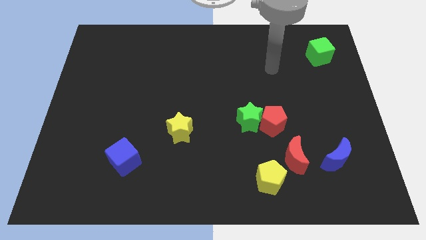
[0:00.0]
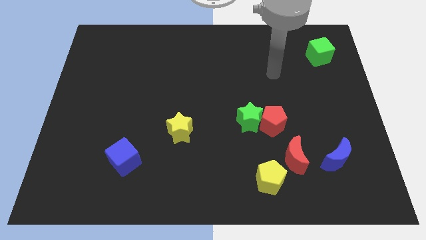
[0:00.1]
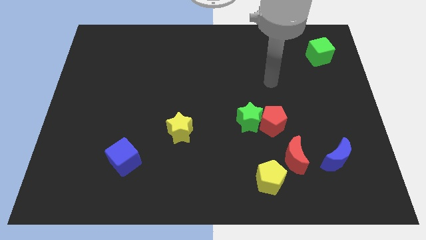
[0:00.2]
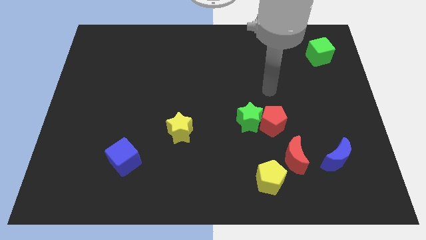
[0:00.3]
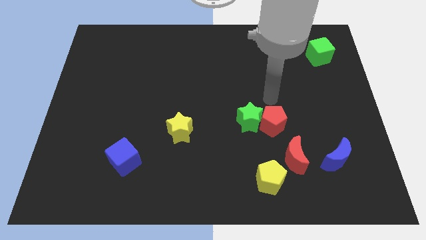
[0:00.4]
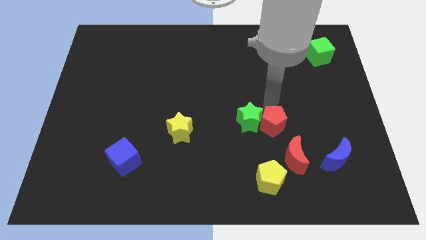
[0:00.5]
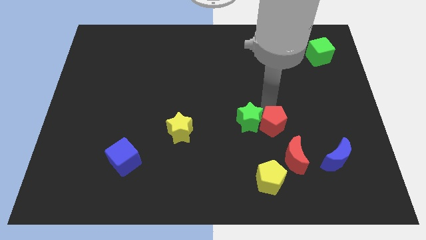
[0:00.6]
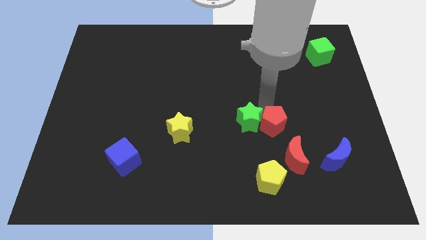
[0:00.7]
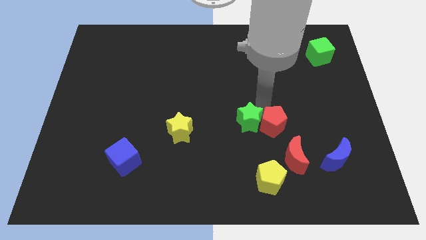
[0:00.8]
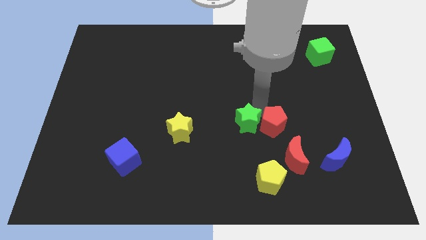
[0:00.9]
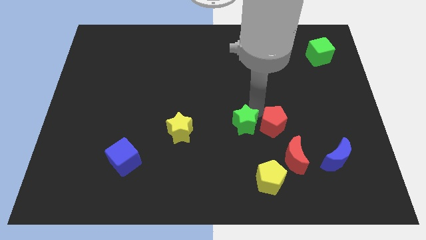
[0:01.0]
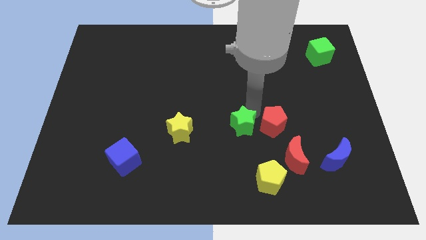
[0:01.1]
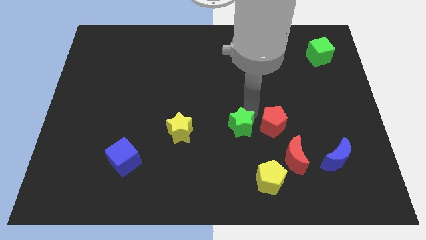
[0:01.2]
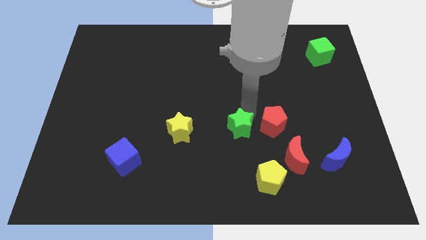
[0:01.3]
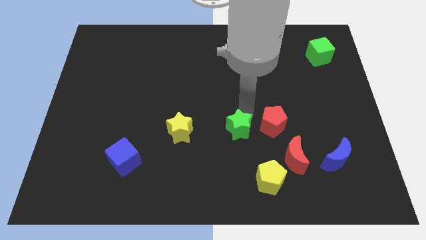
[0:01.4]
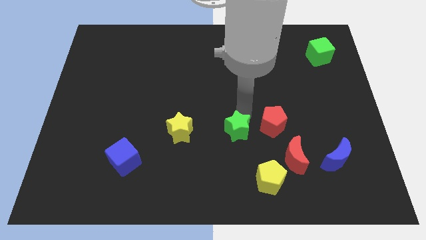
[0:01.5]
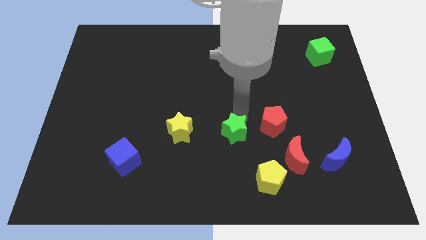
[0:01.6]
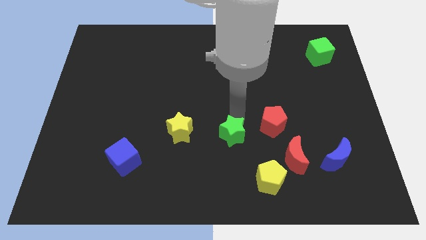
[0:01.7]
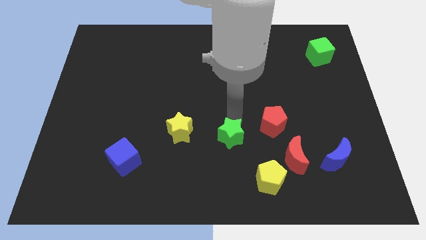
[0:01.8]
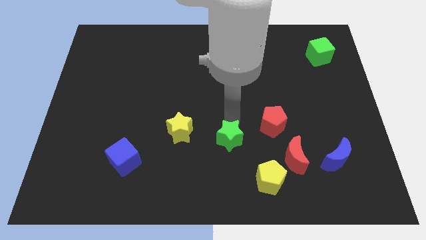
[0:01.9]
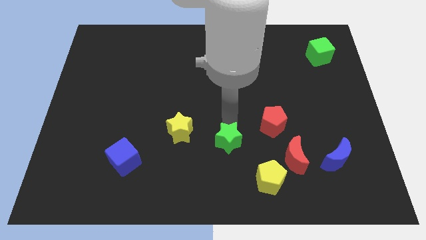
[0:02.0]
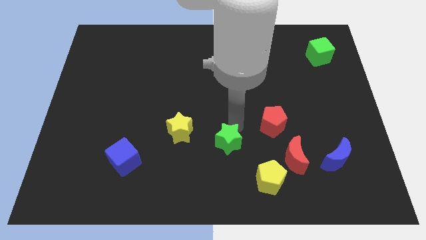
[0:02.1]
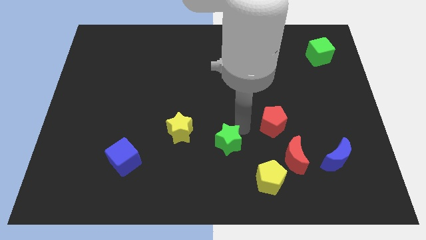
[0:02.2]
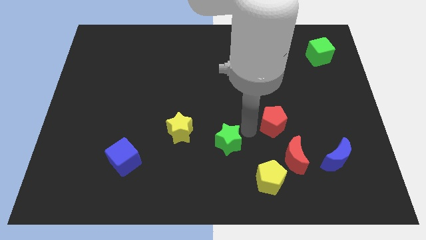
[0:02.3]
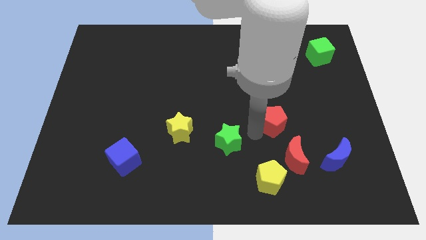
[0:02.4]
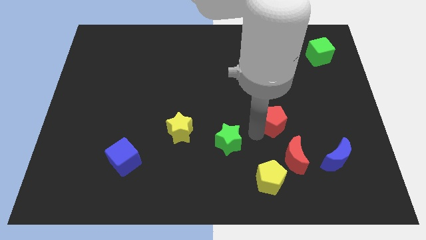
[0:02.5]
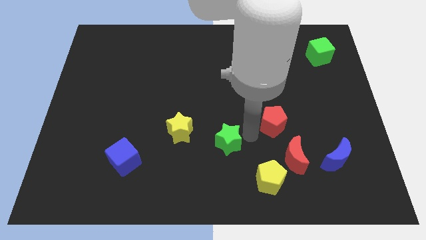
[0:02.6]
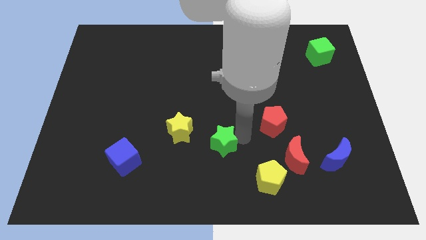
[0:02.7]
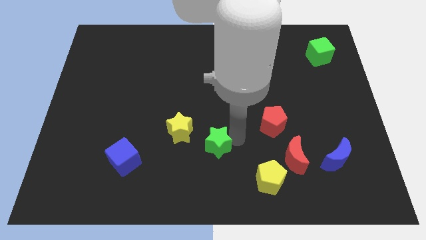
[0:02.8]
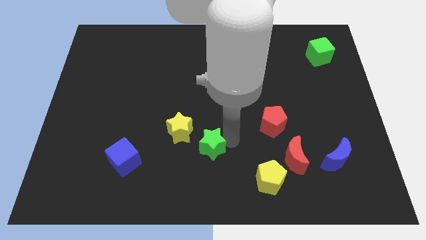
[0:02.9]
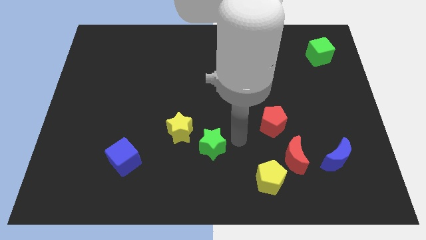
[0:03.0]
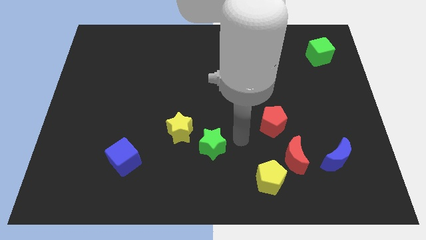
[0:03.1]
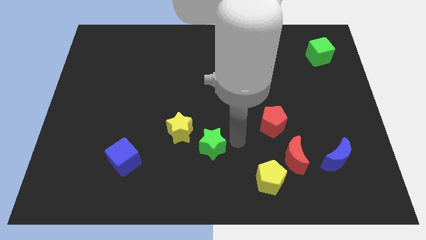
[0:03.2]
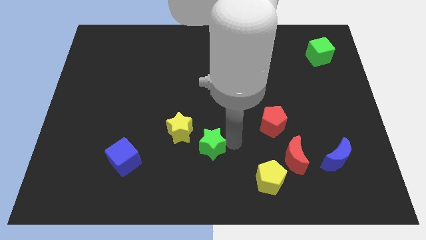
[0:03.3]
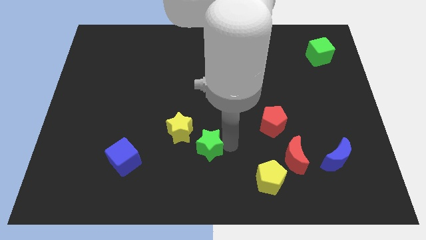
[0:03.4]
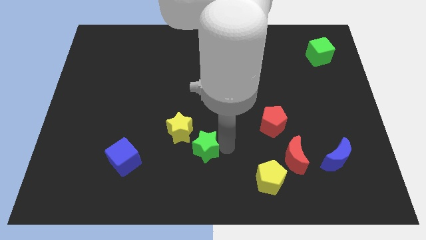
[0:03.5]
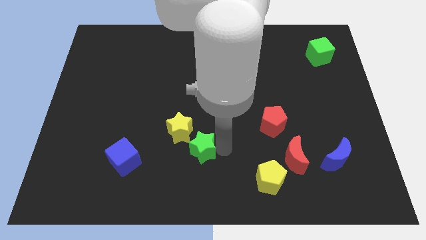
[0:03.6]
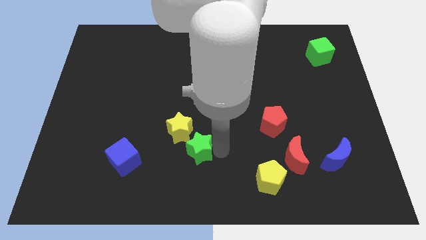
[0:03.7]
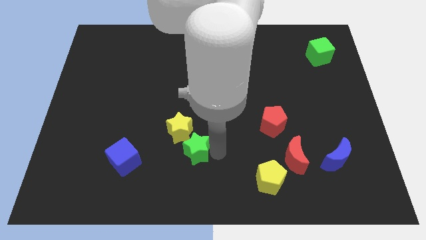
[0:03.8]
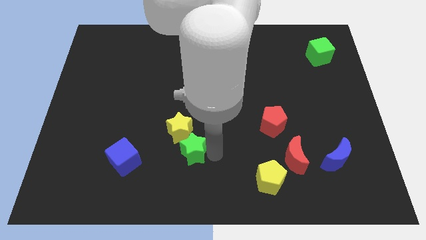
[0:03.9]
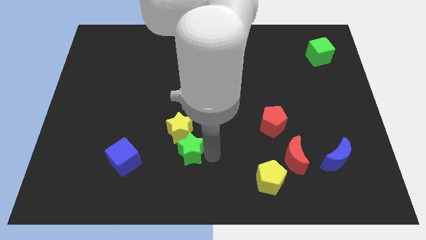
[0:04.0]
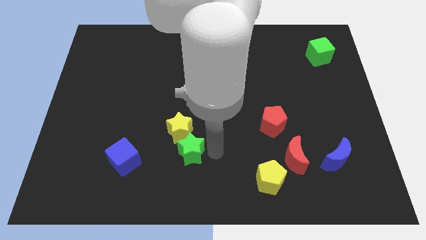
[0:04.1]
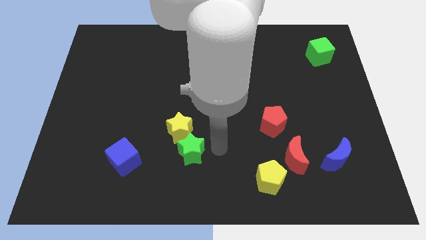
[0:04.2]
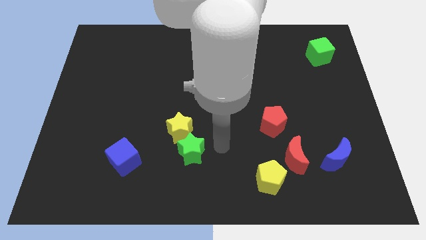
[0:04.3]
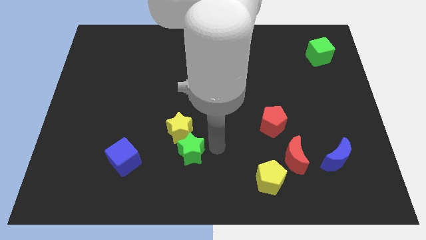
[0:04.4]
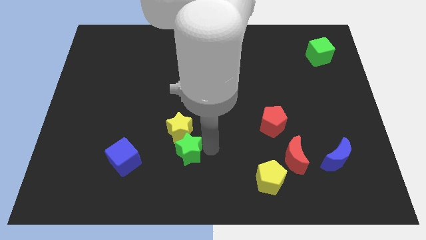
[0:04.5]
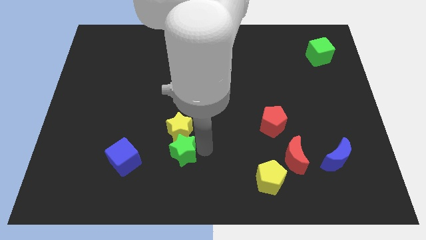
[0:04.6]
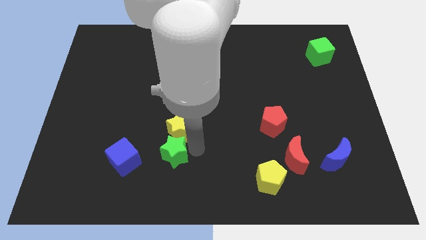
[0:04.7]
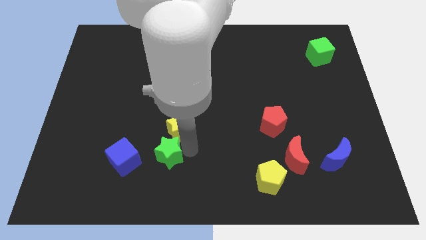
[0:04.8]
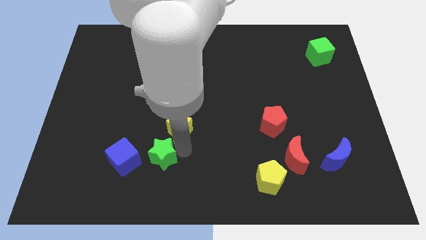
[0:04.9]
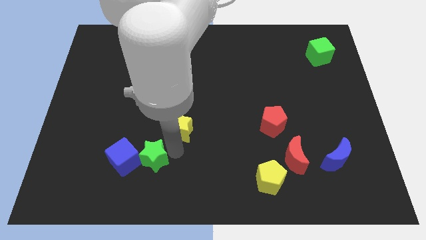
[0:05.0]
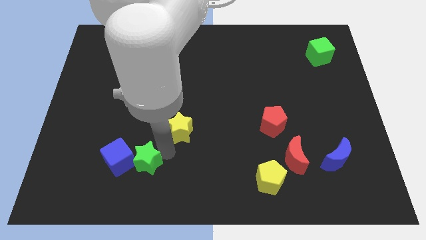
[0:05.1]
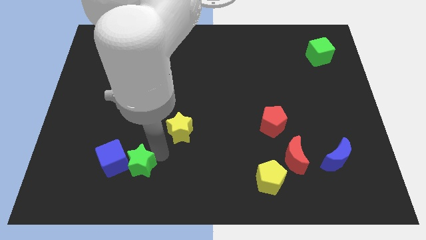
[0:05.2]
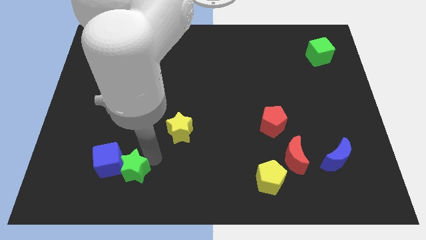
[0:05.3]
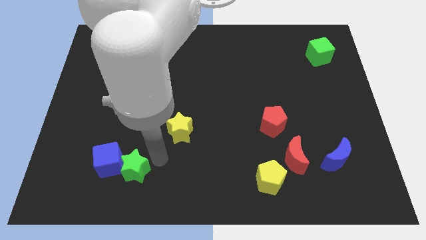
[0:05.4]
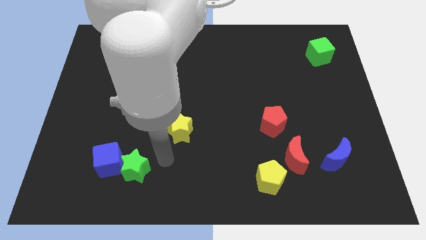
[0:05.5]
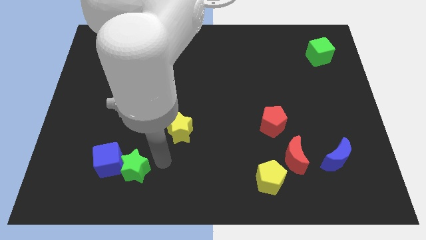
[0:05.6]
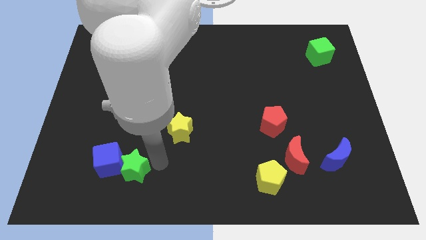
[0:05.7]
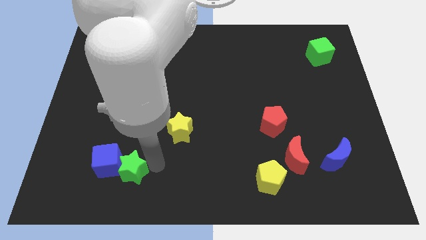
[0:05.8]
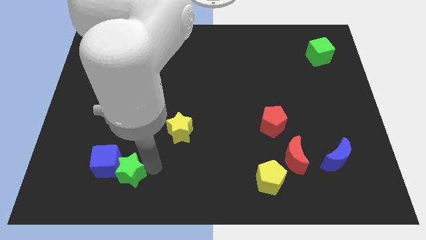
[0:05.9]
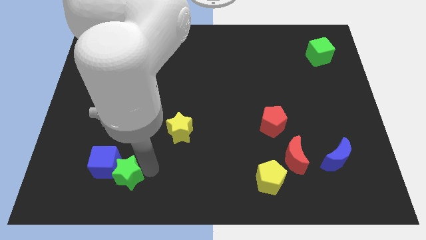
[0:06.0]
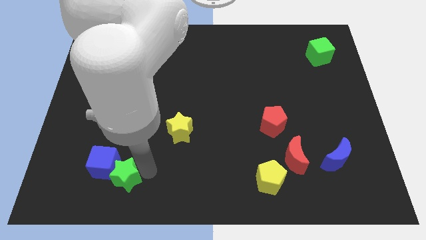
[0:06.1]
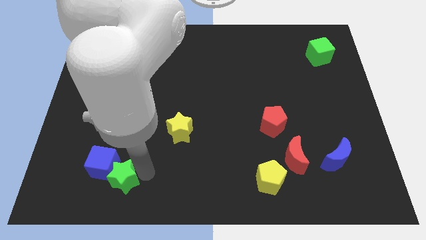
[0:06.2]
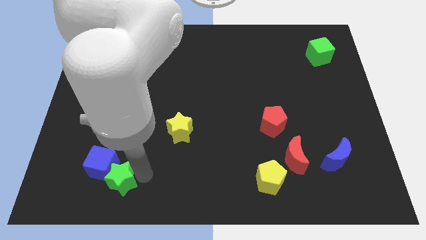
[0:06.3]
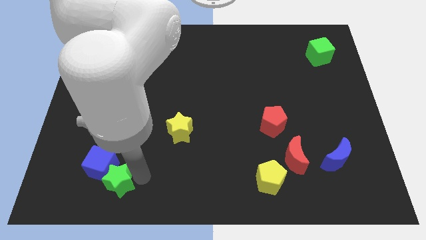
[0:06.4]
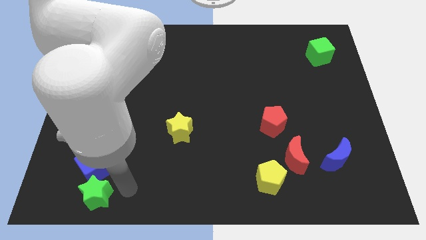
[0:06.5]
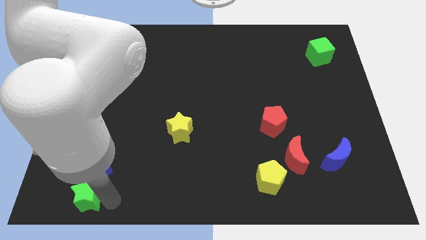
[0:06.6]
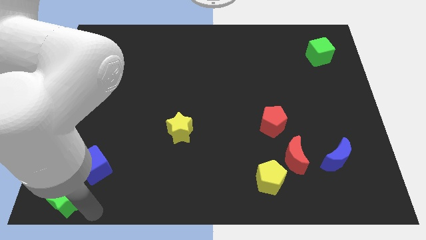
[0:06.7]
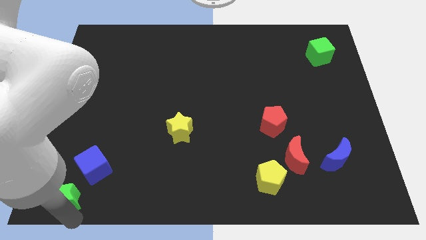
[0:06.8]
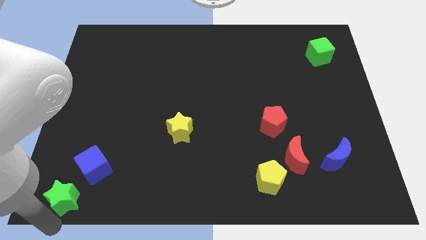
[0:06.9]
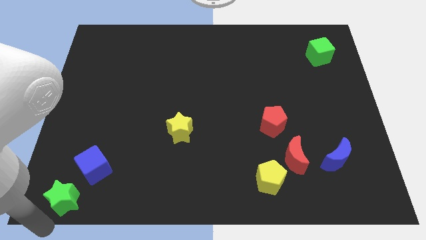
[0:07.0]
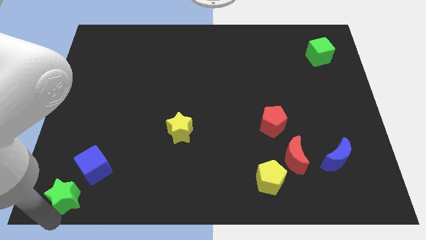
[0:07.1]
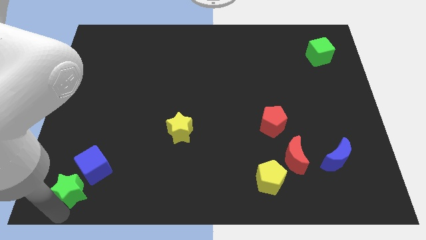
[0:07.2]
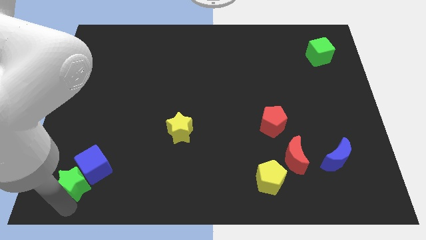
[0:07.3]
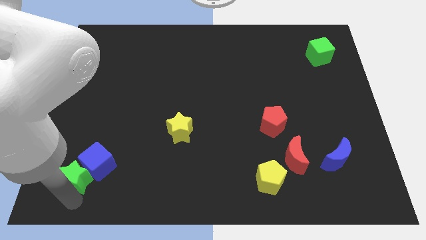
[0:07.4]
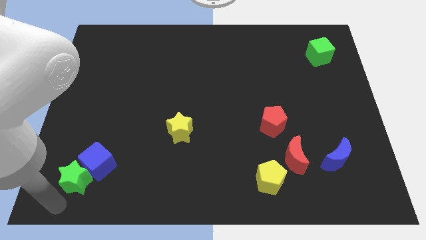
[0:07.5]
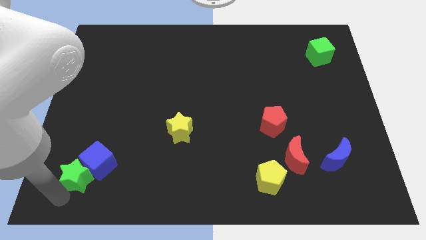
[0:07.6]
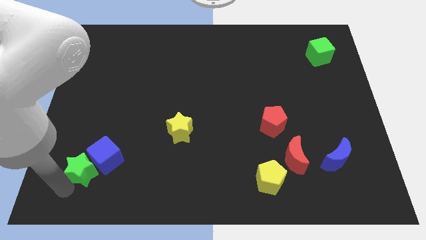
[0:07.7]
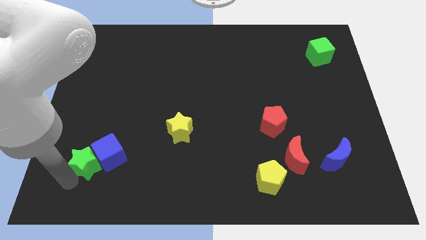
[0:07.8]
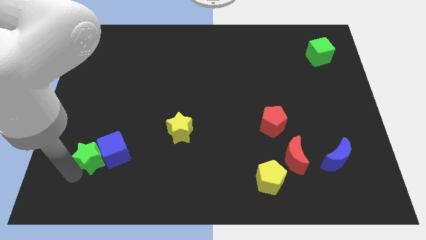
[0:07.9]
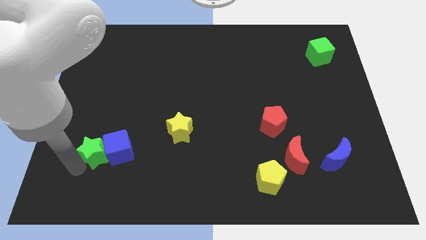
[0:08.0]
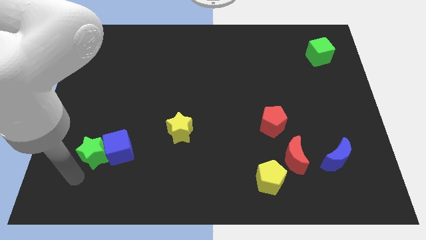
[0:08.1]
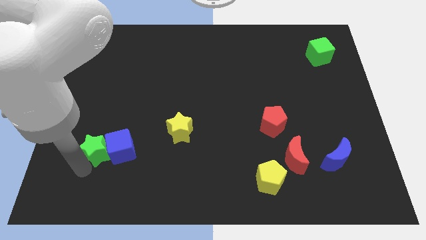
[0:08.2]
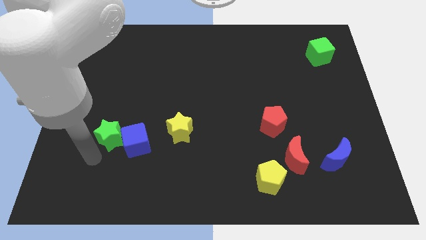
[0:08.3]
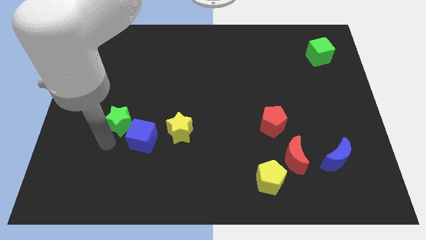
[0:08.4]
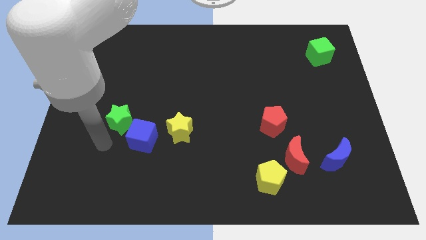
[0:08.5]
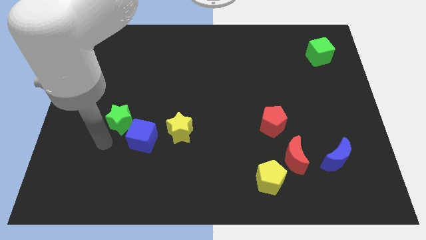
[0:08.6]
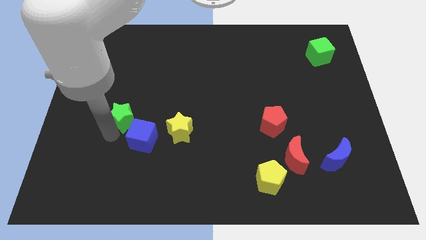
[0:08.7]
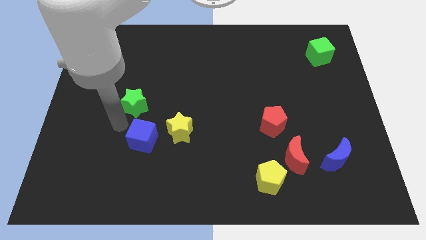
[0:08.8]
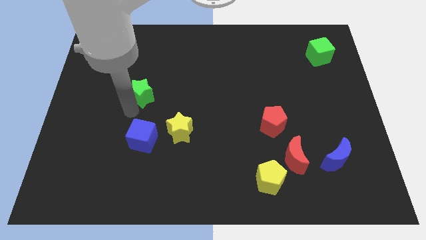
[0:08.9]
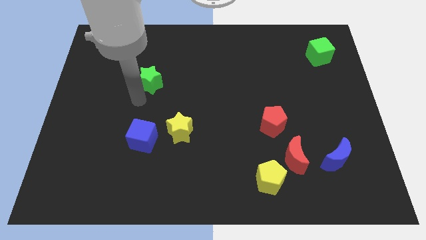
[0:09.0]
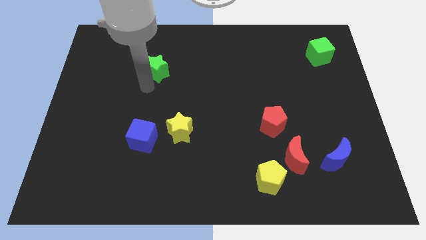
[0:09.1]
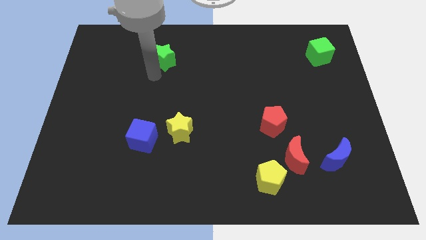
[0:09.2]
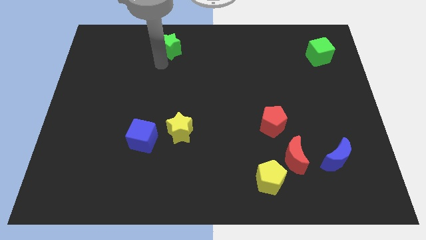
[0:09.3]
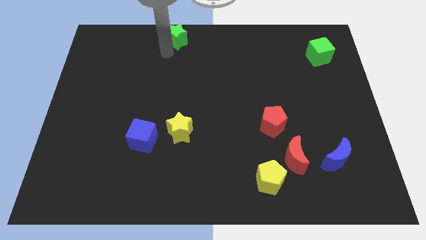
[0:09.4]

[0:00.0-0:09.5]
put the green star to the top
